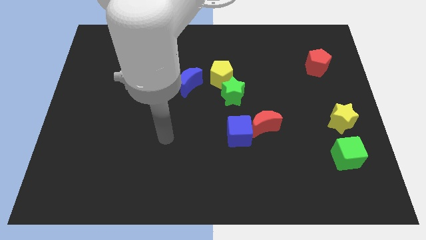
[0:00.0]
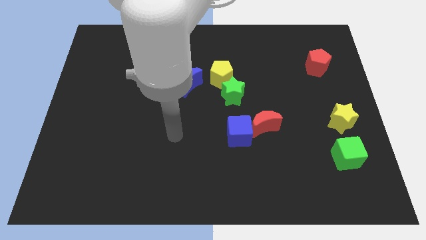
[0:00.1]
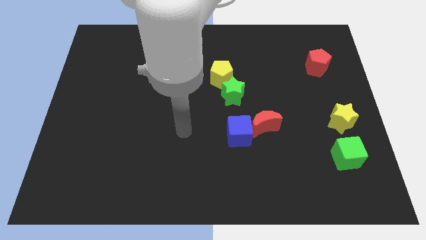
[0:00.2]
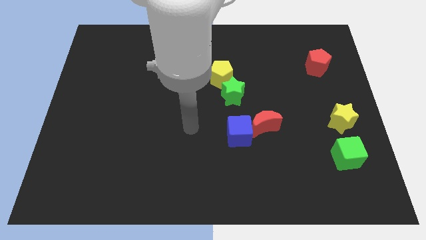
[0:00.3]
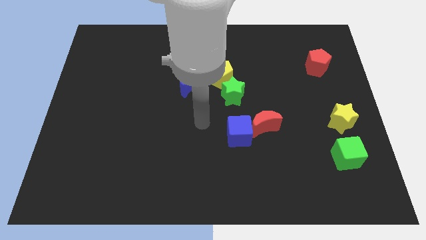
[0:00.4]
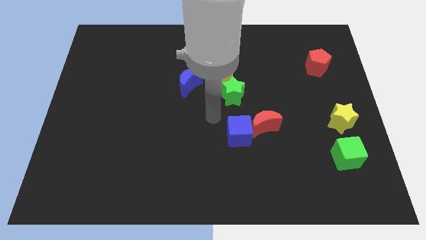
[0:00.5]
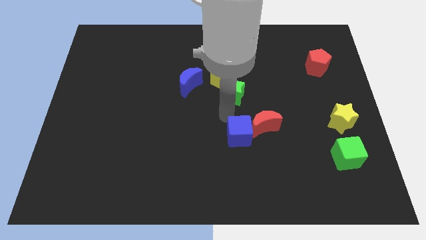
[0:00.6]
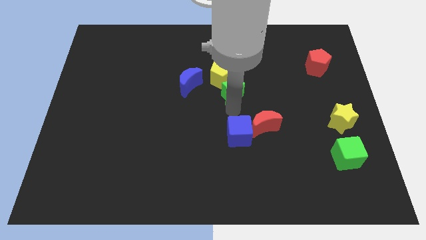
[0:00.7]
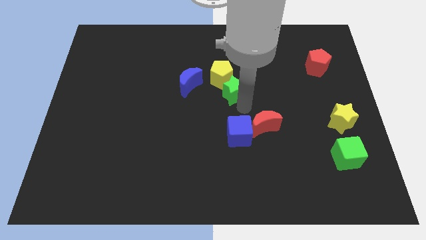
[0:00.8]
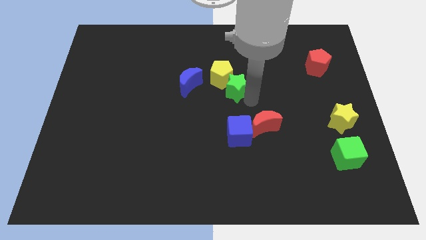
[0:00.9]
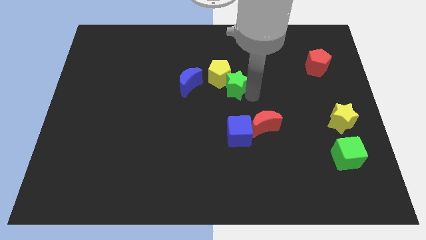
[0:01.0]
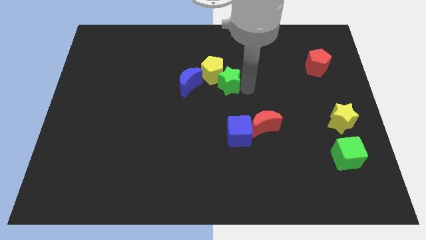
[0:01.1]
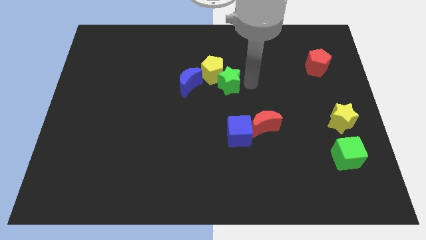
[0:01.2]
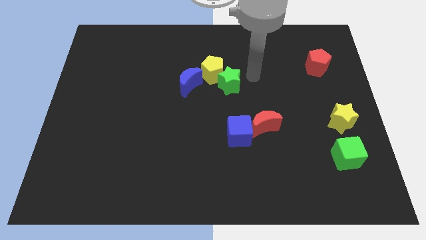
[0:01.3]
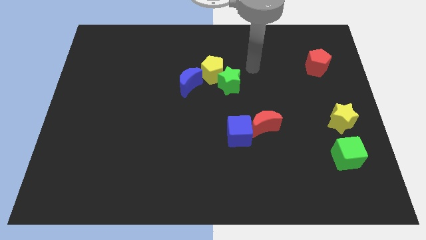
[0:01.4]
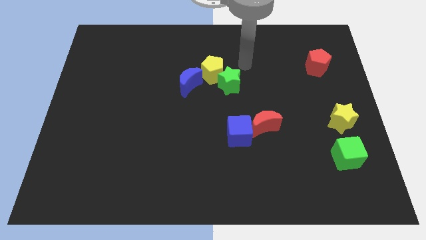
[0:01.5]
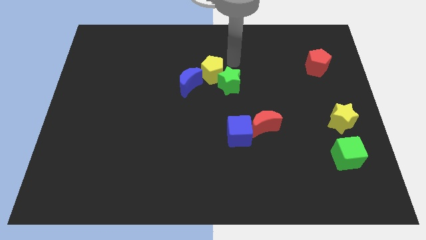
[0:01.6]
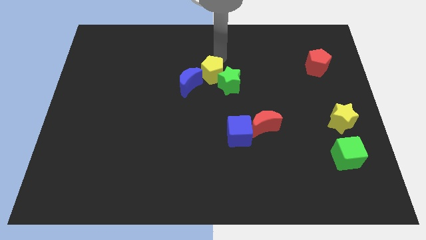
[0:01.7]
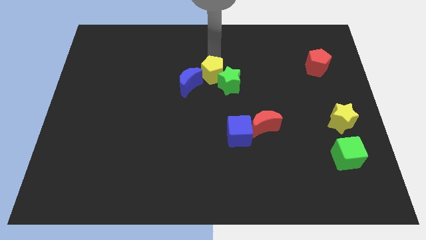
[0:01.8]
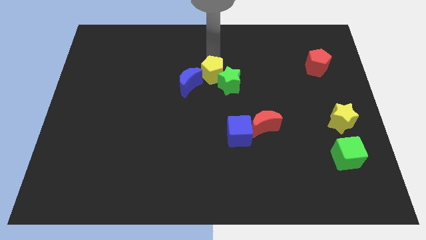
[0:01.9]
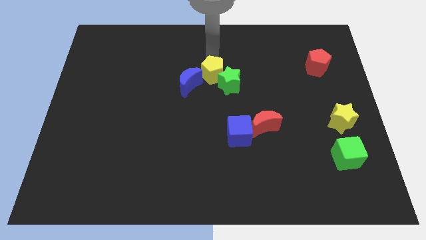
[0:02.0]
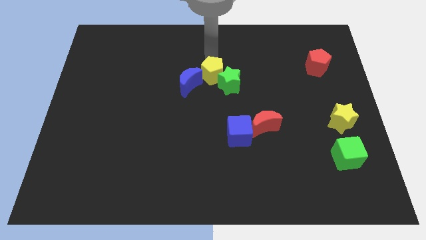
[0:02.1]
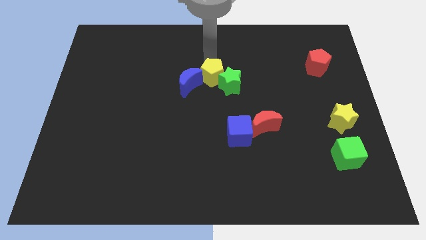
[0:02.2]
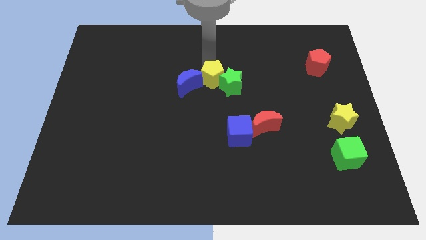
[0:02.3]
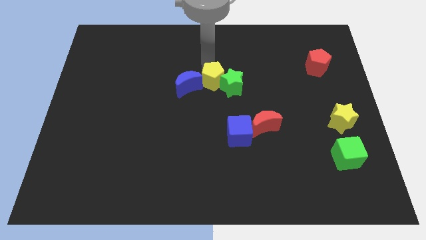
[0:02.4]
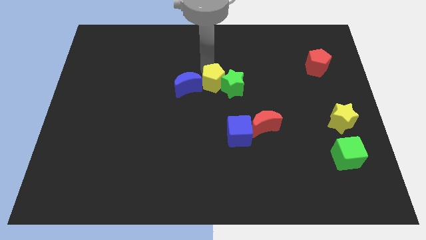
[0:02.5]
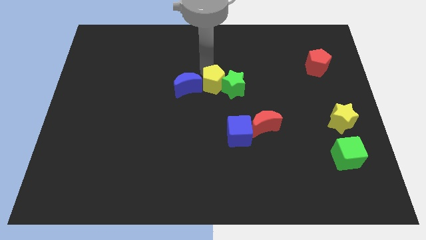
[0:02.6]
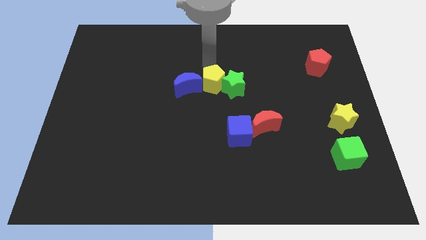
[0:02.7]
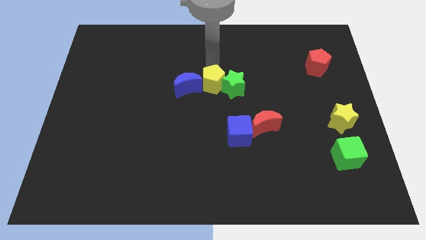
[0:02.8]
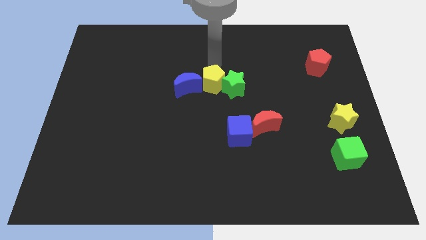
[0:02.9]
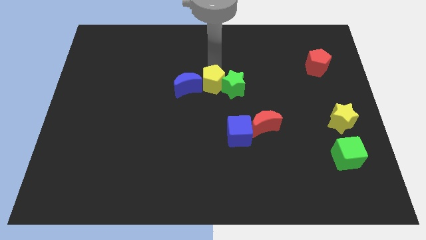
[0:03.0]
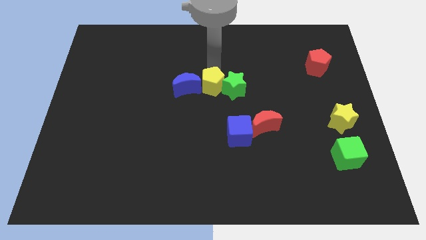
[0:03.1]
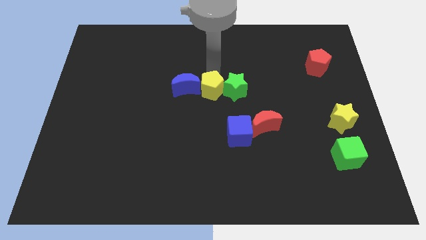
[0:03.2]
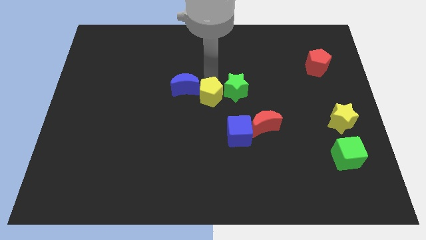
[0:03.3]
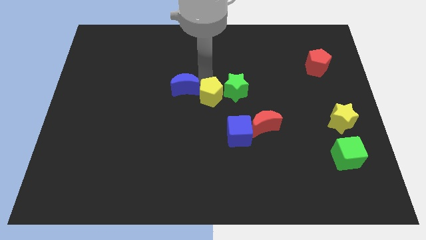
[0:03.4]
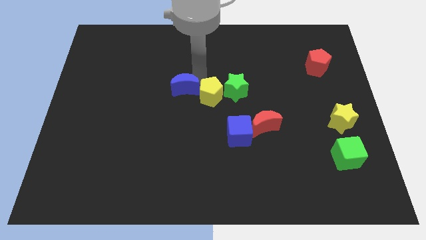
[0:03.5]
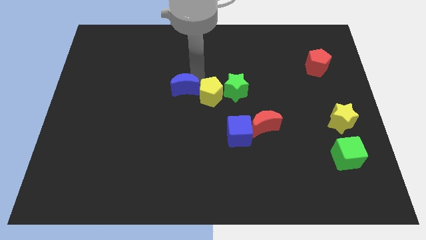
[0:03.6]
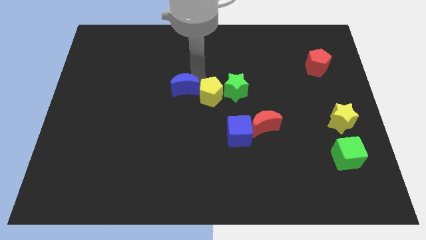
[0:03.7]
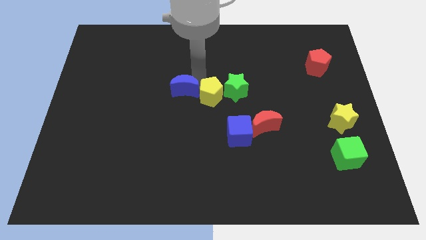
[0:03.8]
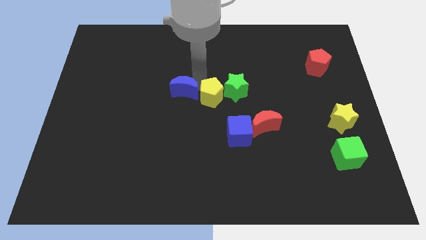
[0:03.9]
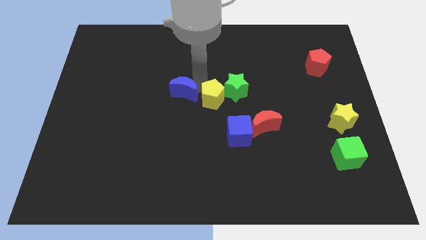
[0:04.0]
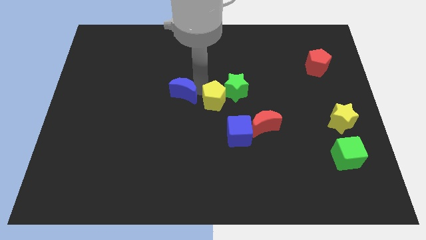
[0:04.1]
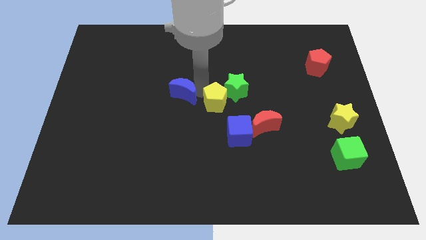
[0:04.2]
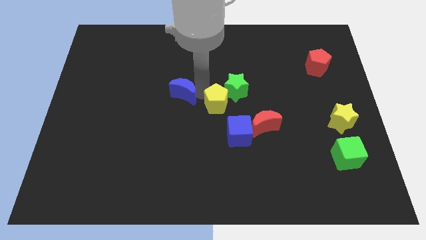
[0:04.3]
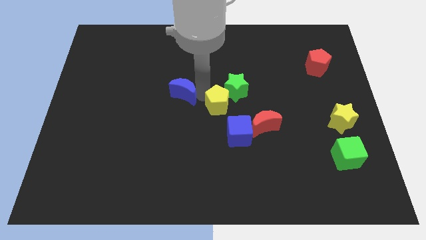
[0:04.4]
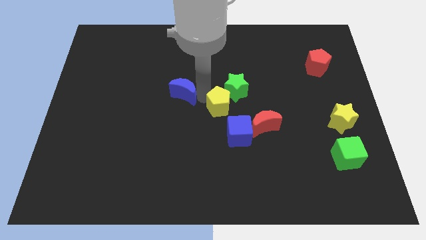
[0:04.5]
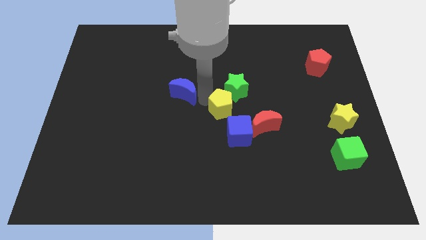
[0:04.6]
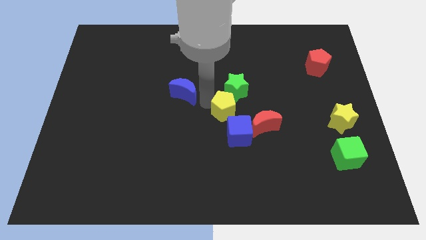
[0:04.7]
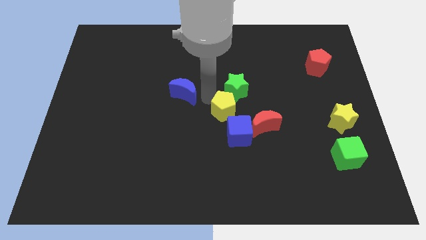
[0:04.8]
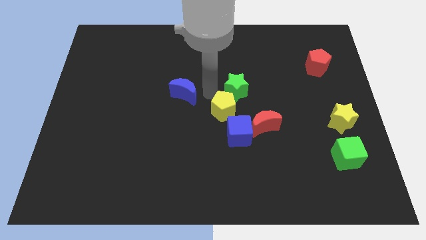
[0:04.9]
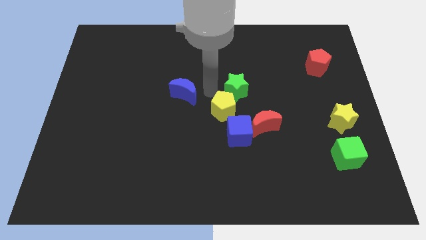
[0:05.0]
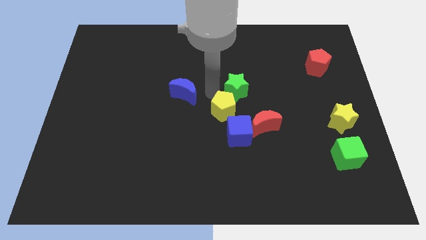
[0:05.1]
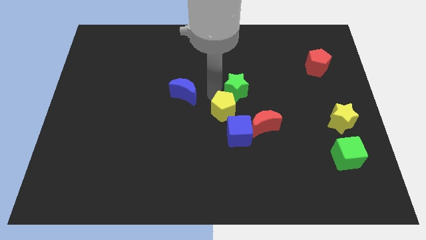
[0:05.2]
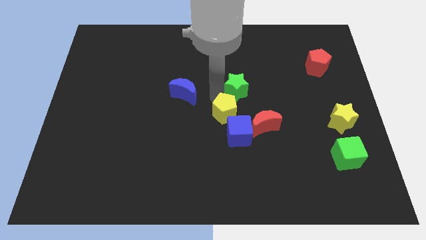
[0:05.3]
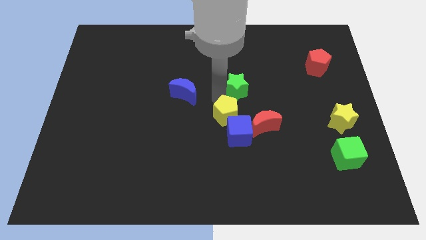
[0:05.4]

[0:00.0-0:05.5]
slide the yellow pentagon to the blue cube

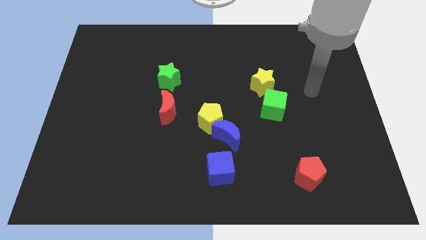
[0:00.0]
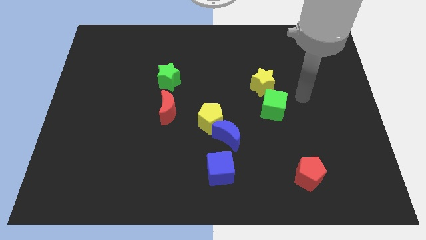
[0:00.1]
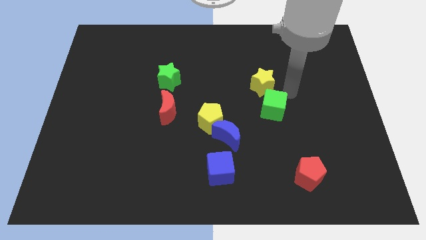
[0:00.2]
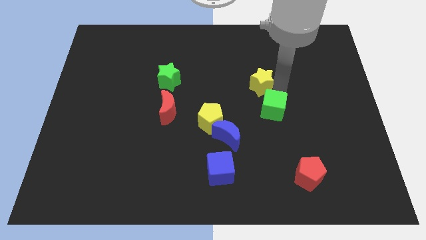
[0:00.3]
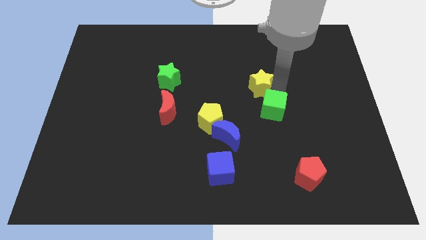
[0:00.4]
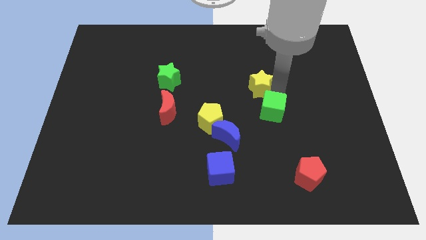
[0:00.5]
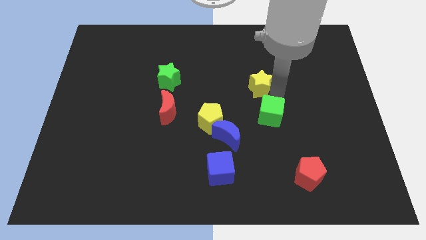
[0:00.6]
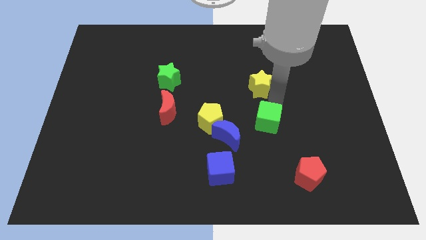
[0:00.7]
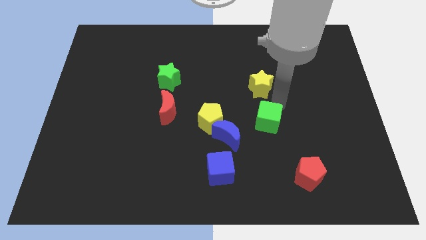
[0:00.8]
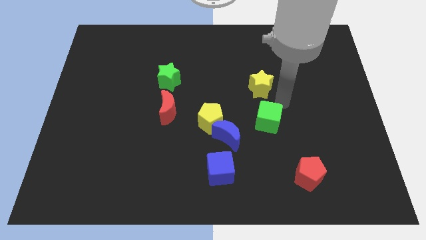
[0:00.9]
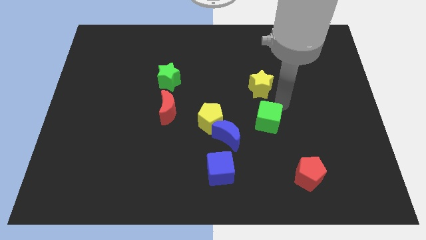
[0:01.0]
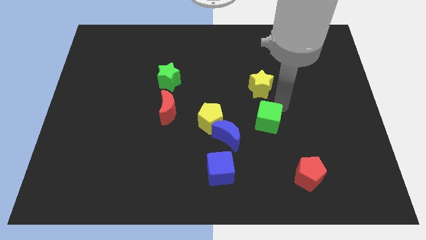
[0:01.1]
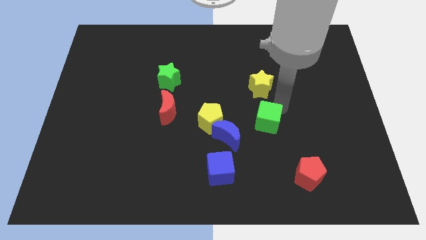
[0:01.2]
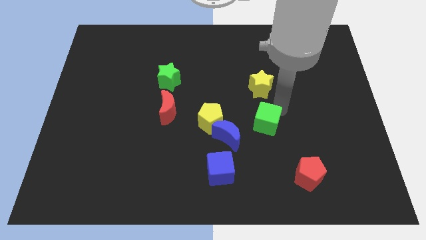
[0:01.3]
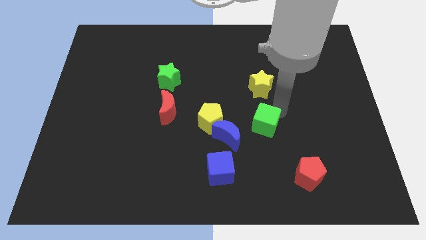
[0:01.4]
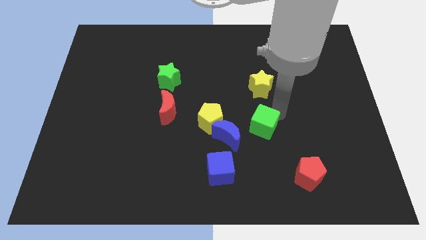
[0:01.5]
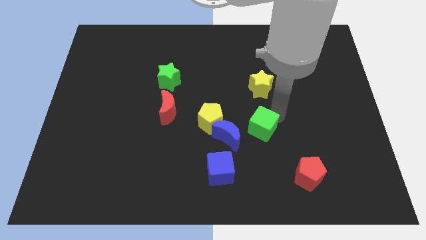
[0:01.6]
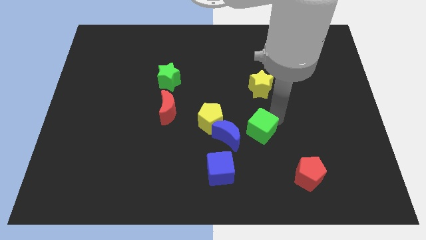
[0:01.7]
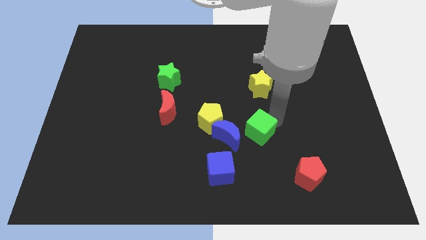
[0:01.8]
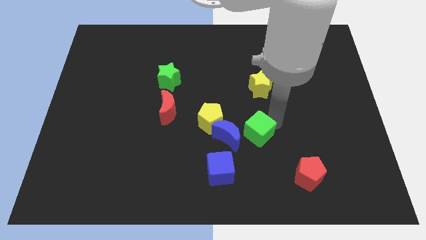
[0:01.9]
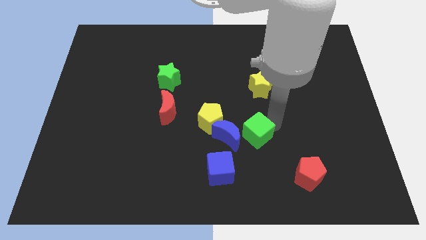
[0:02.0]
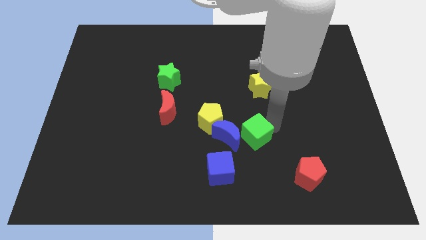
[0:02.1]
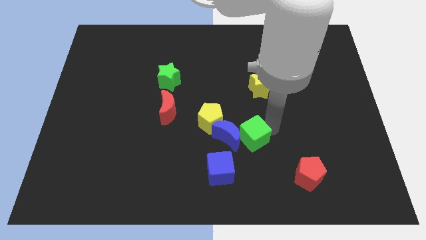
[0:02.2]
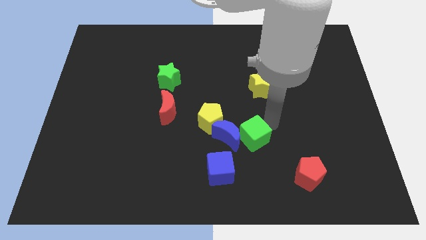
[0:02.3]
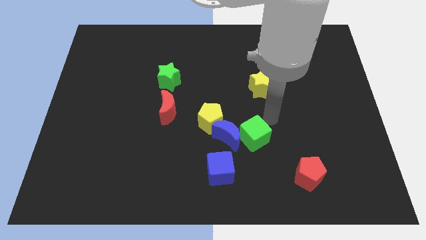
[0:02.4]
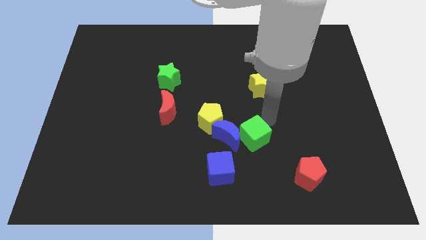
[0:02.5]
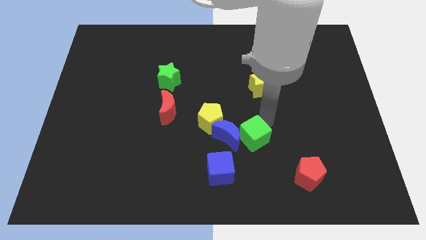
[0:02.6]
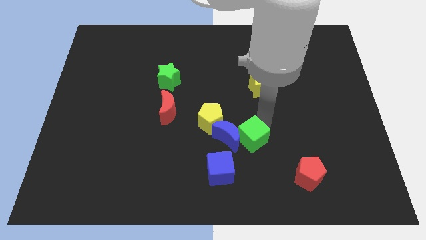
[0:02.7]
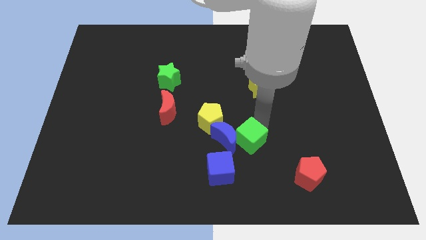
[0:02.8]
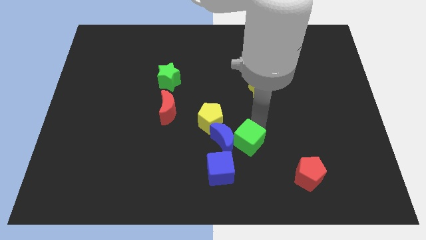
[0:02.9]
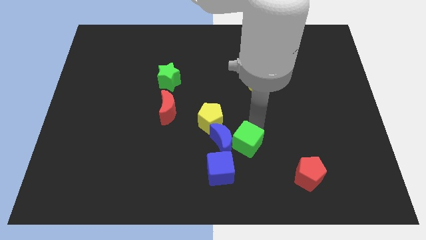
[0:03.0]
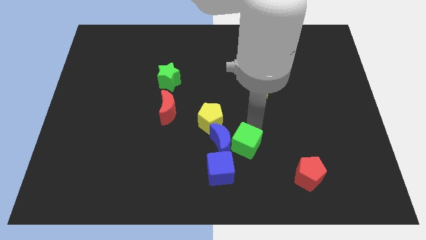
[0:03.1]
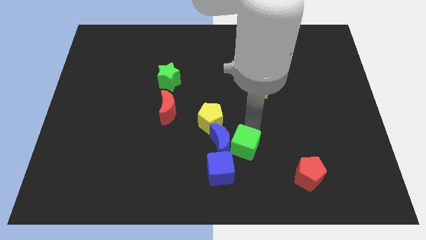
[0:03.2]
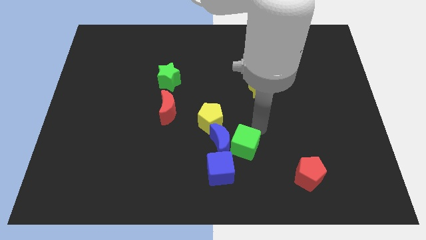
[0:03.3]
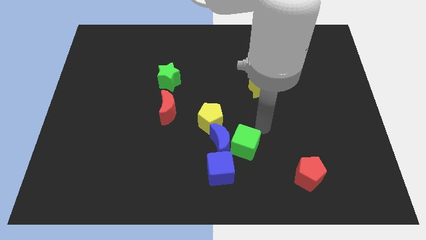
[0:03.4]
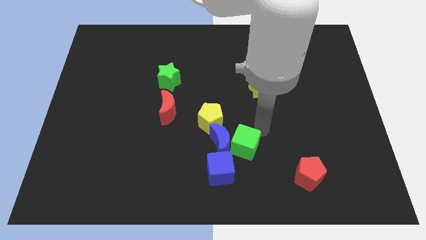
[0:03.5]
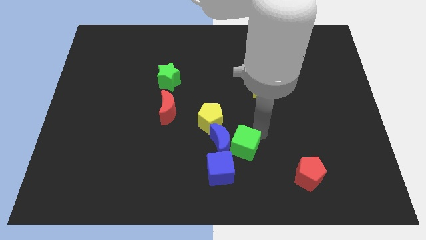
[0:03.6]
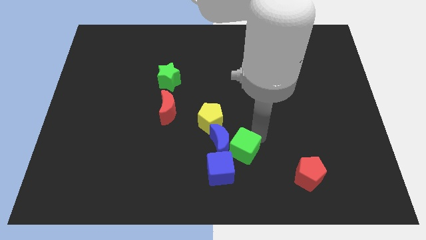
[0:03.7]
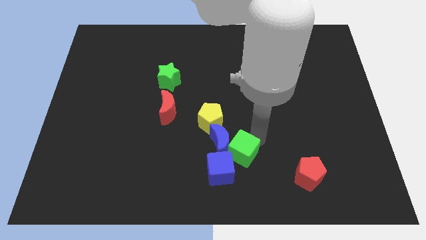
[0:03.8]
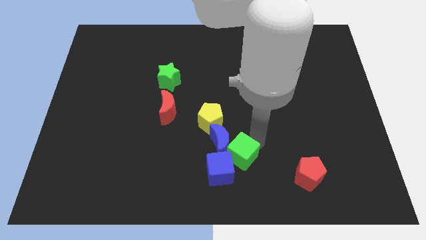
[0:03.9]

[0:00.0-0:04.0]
move the green cube towards the blue cube
